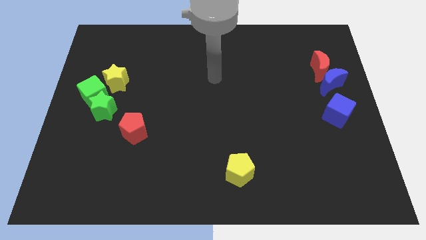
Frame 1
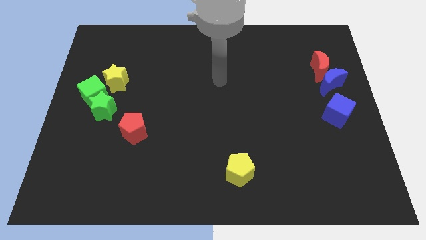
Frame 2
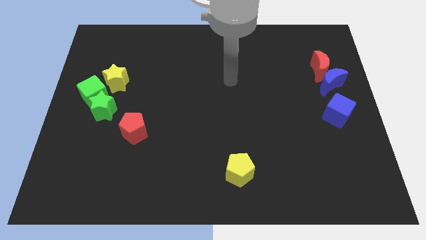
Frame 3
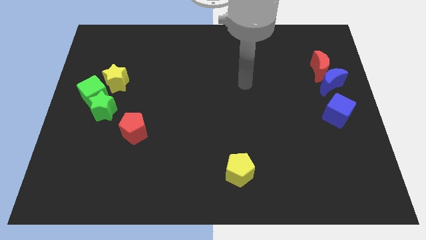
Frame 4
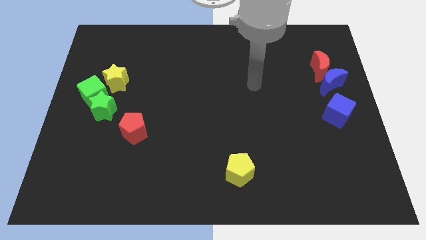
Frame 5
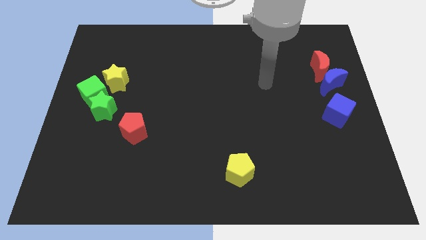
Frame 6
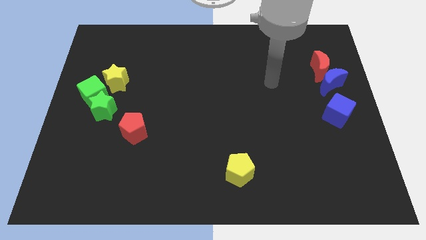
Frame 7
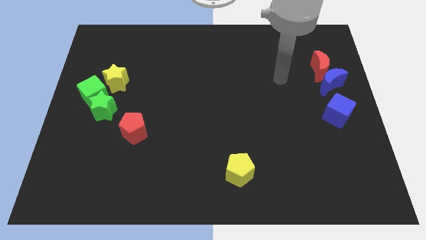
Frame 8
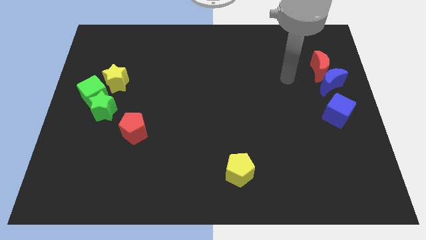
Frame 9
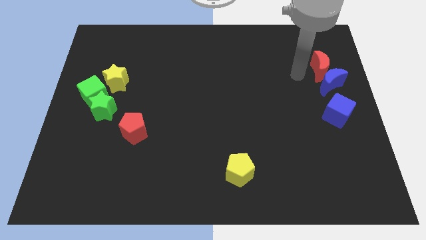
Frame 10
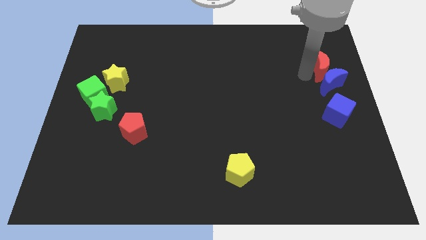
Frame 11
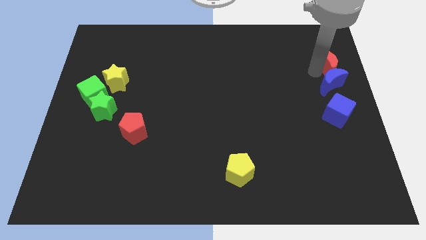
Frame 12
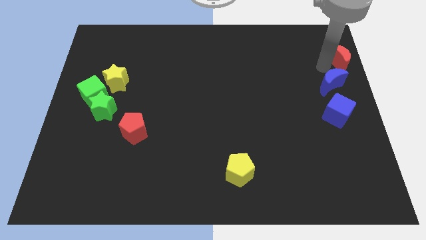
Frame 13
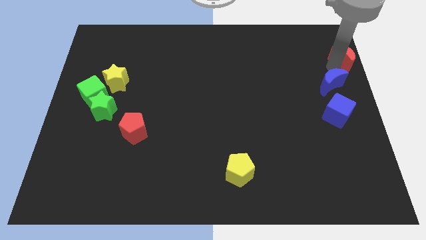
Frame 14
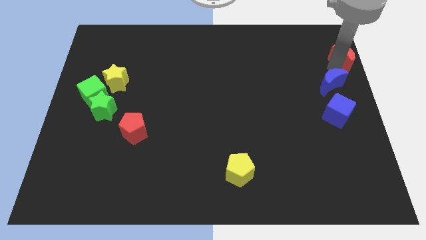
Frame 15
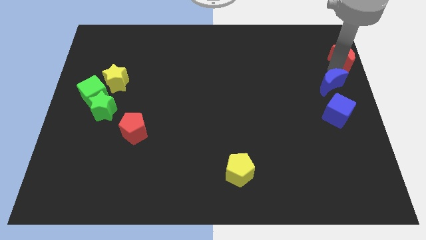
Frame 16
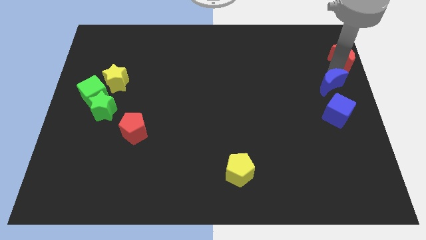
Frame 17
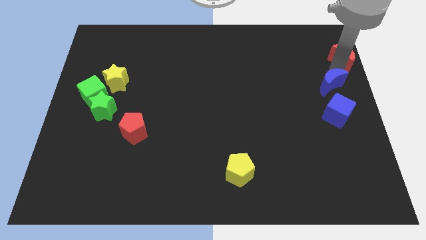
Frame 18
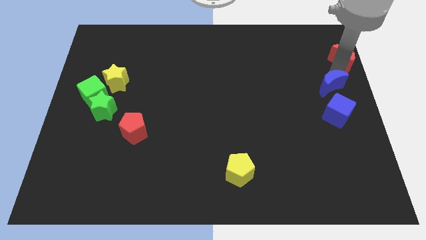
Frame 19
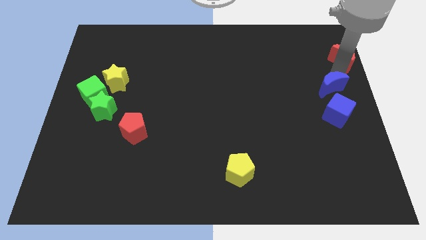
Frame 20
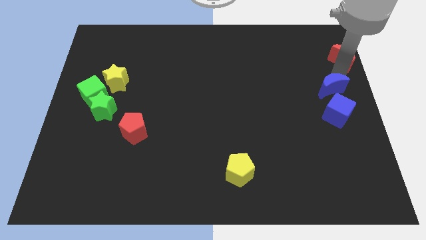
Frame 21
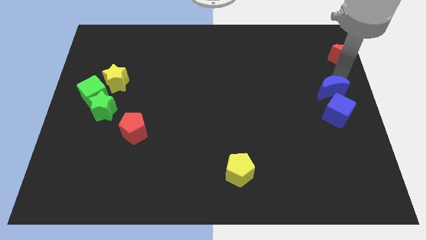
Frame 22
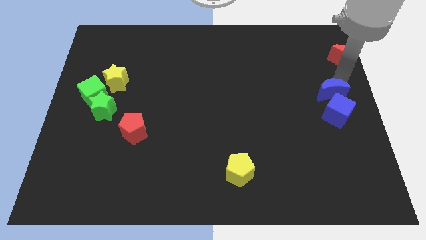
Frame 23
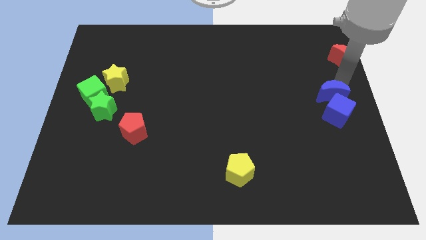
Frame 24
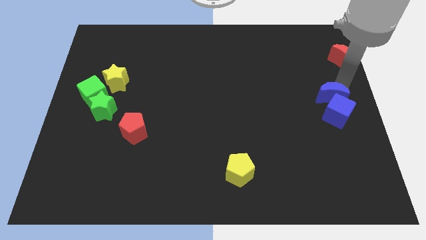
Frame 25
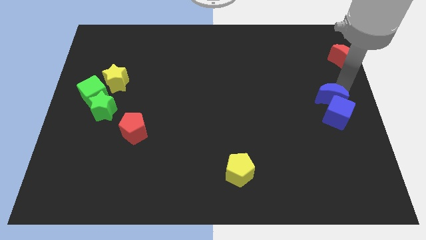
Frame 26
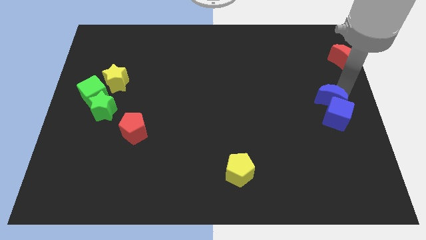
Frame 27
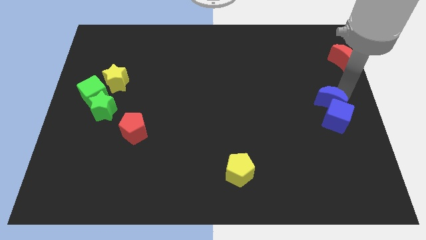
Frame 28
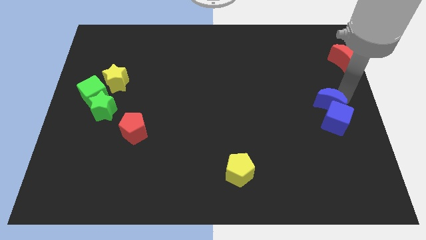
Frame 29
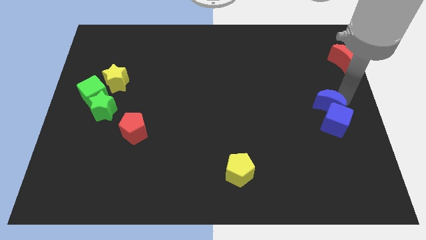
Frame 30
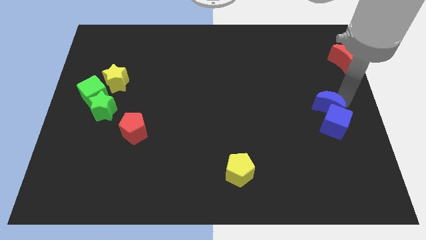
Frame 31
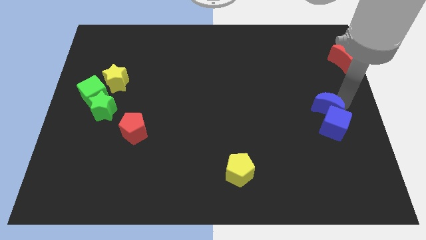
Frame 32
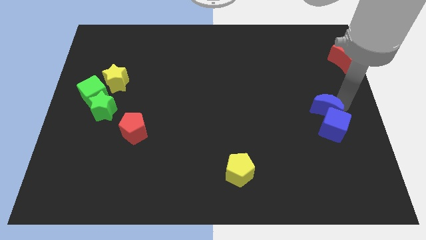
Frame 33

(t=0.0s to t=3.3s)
slightly move the blue moon down and to the left

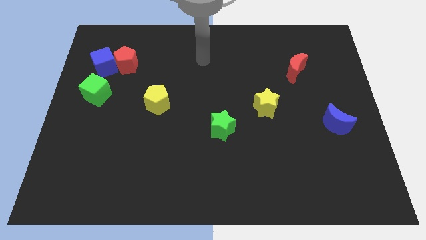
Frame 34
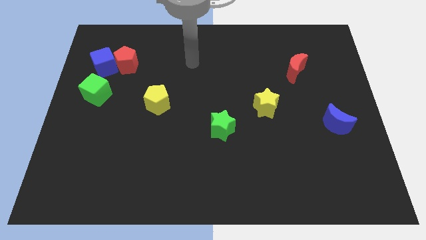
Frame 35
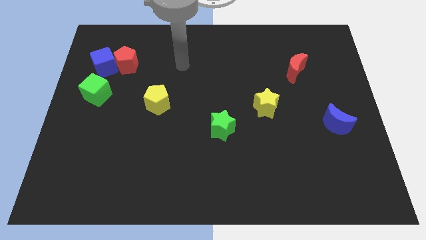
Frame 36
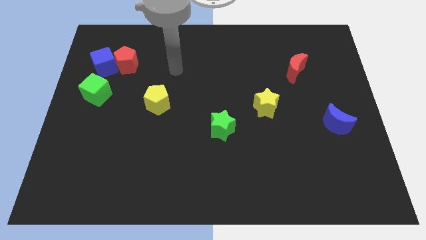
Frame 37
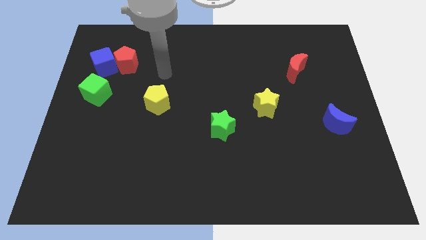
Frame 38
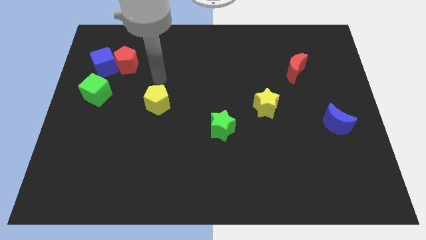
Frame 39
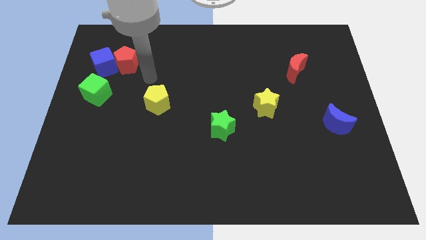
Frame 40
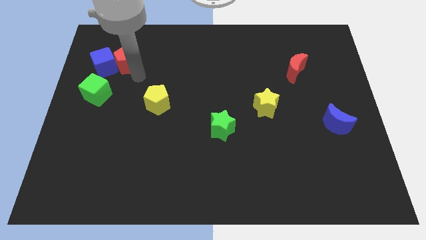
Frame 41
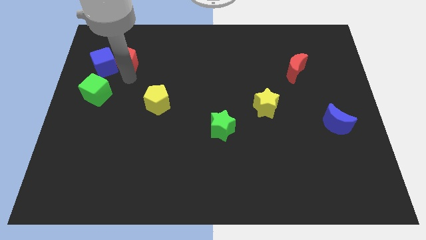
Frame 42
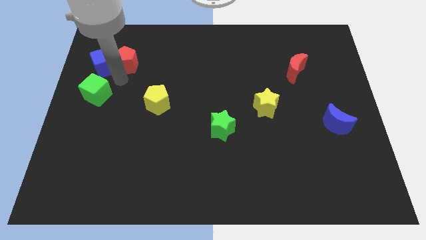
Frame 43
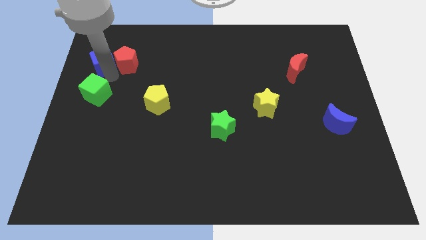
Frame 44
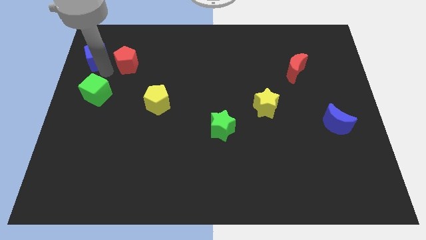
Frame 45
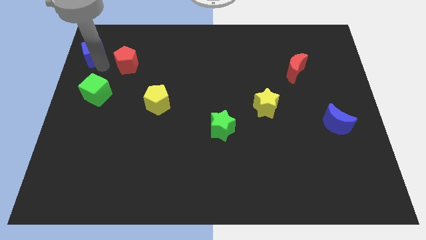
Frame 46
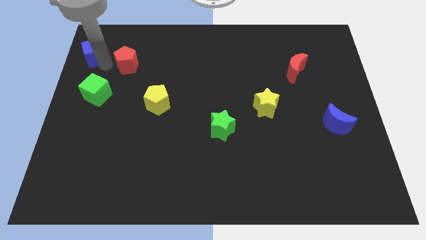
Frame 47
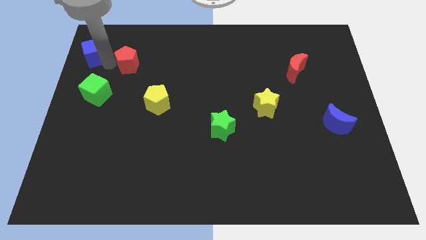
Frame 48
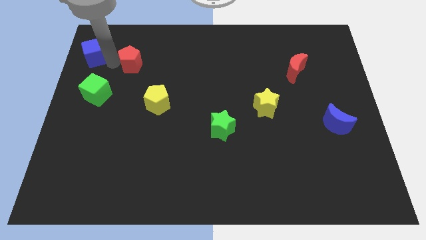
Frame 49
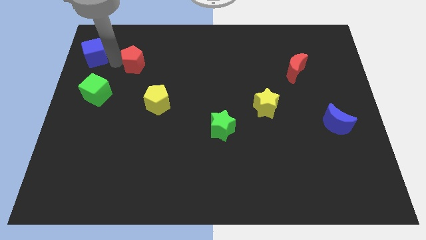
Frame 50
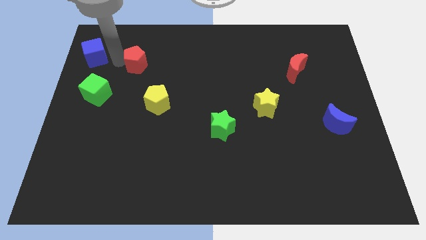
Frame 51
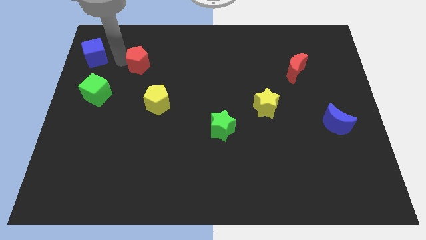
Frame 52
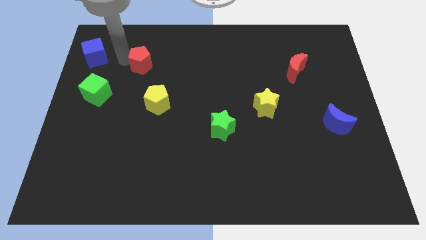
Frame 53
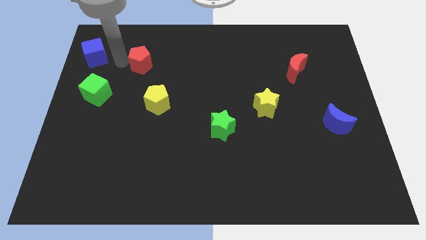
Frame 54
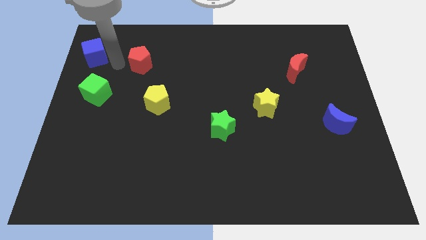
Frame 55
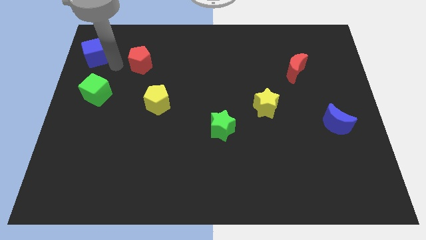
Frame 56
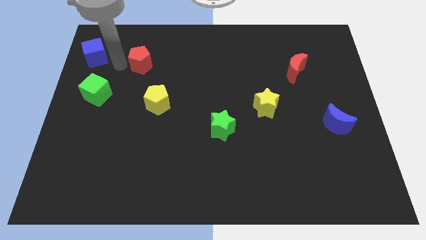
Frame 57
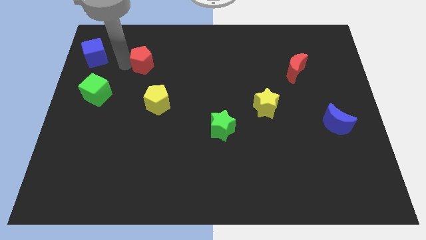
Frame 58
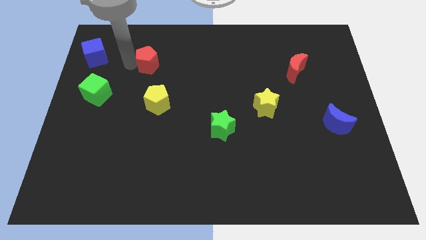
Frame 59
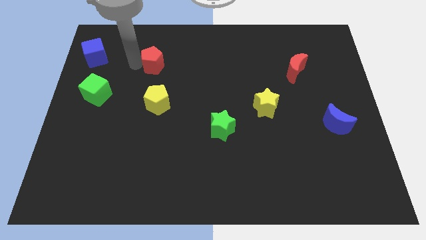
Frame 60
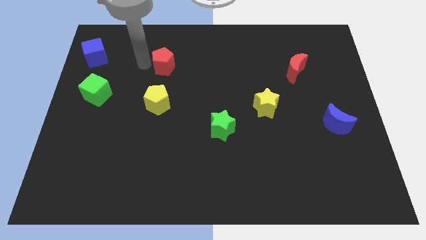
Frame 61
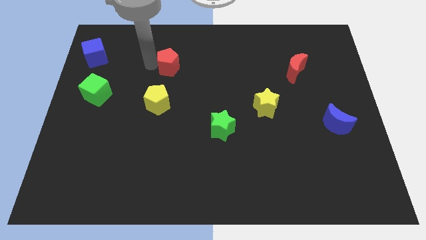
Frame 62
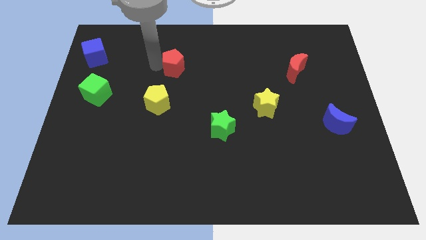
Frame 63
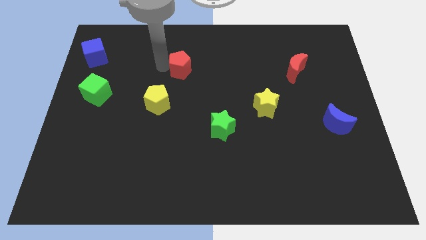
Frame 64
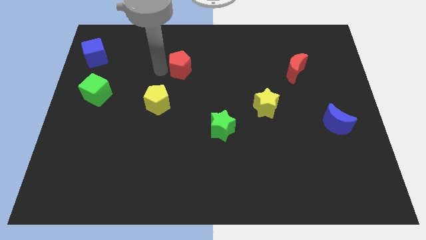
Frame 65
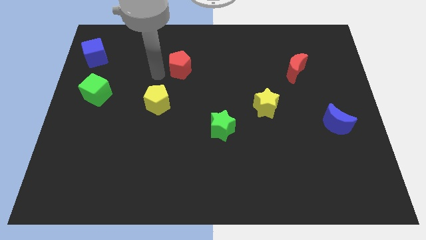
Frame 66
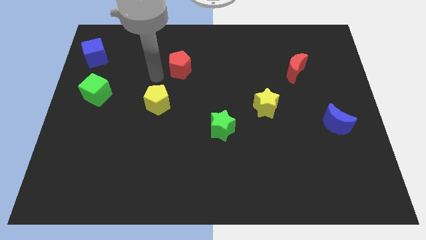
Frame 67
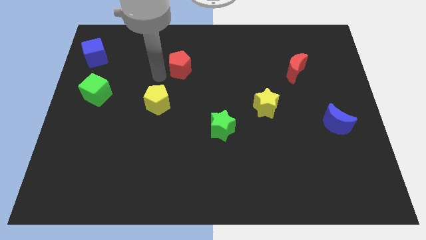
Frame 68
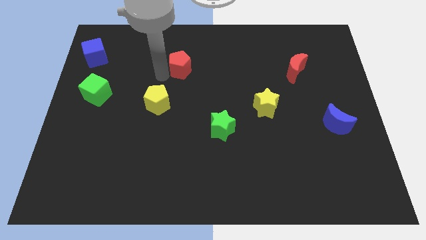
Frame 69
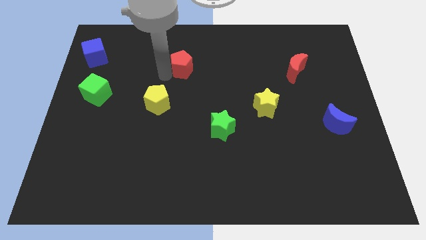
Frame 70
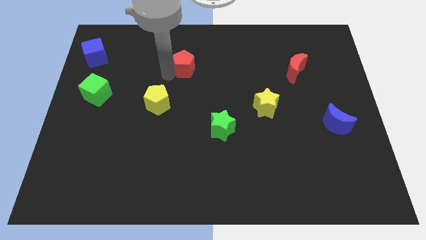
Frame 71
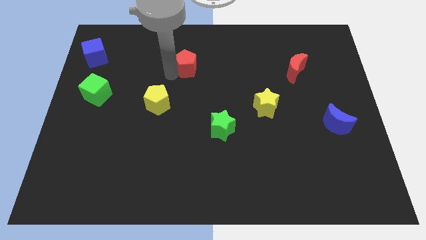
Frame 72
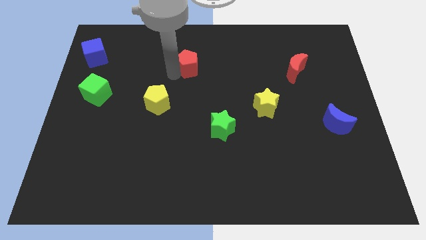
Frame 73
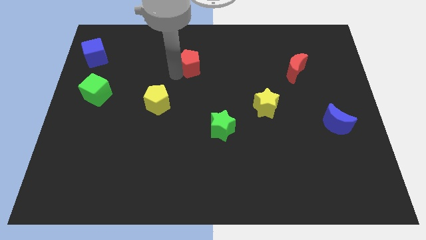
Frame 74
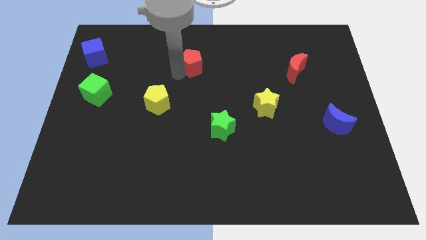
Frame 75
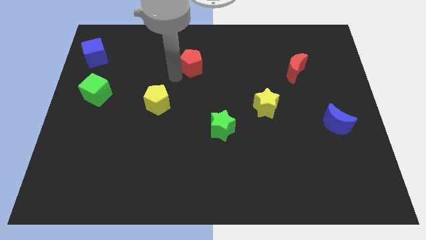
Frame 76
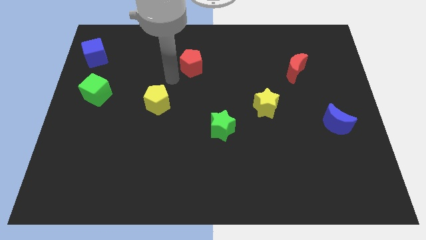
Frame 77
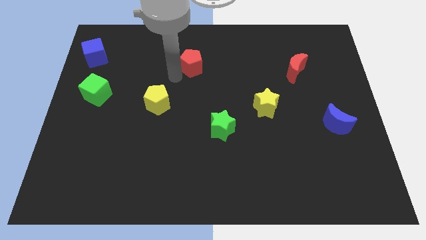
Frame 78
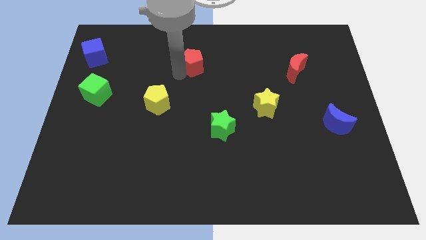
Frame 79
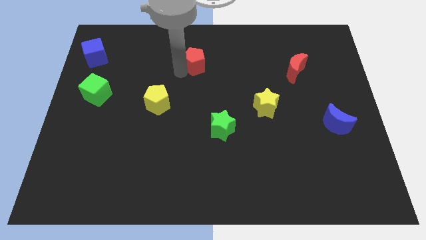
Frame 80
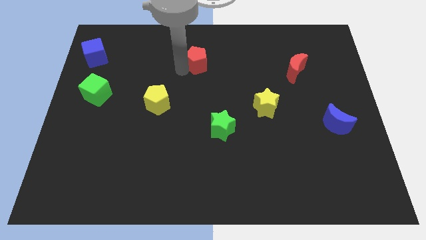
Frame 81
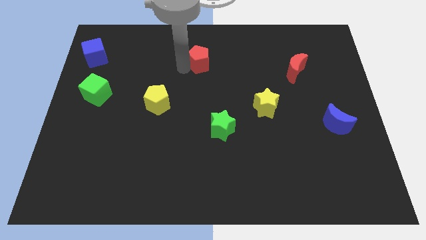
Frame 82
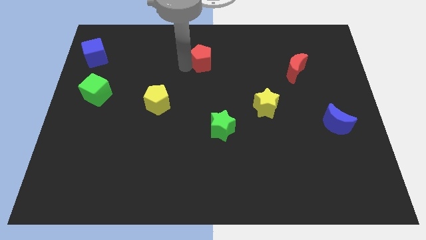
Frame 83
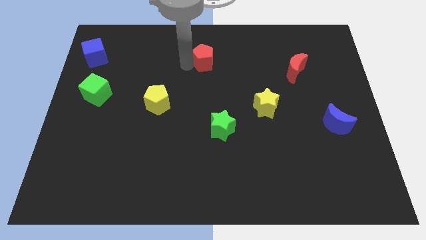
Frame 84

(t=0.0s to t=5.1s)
move the red pentagon to the right
